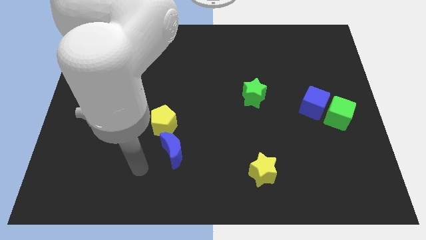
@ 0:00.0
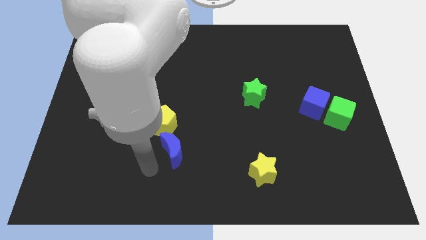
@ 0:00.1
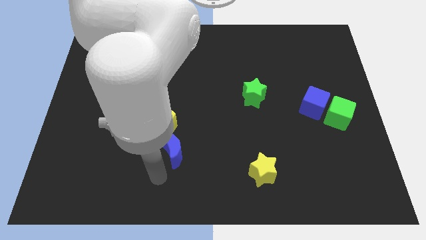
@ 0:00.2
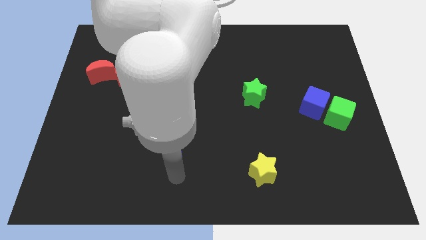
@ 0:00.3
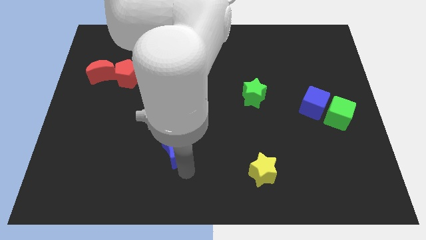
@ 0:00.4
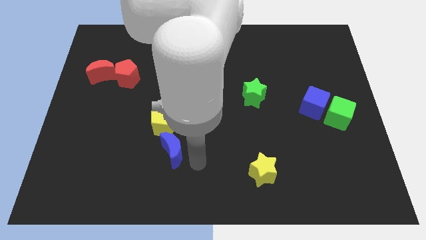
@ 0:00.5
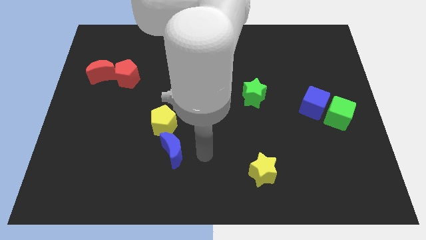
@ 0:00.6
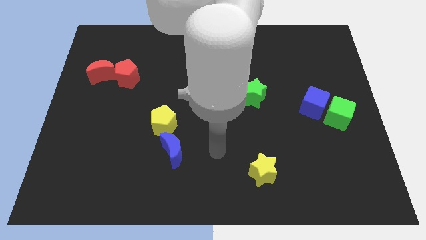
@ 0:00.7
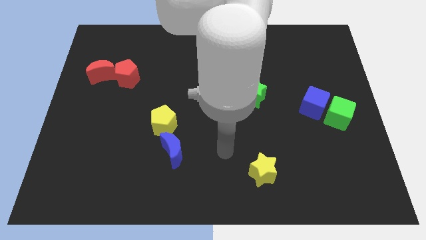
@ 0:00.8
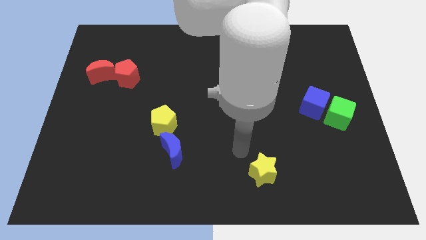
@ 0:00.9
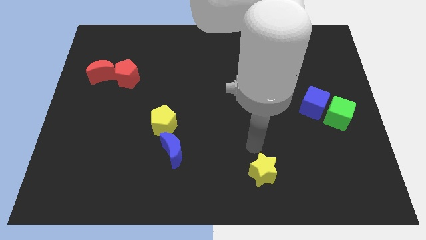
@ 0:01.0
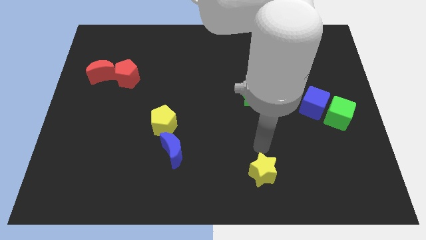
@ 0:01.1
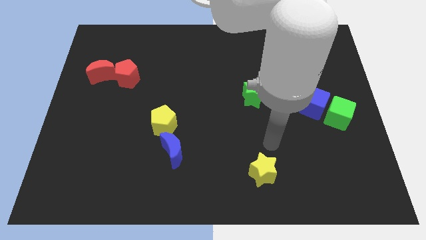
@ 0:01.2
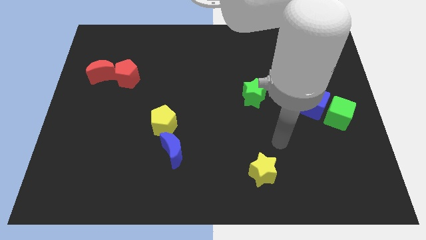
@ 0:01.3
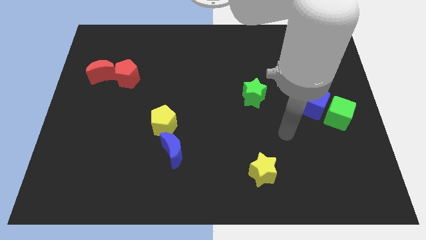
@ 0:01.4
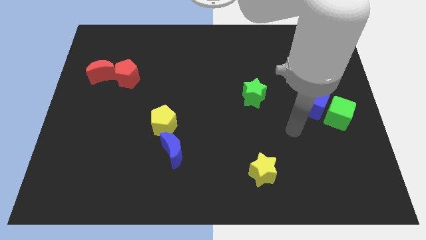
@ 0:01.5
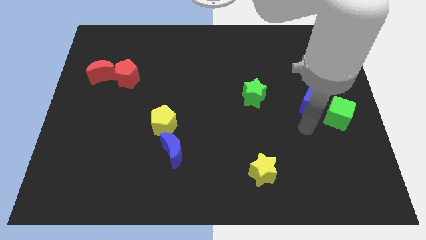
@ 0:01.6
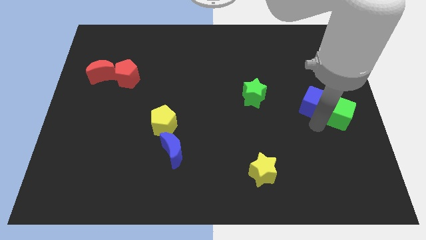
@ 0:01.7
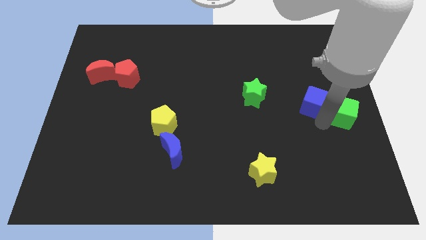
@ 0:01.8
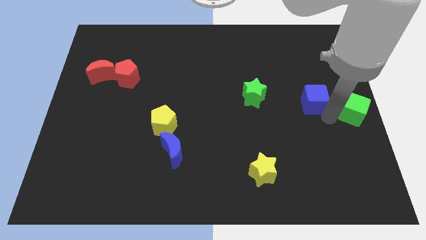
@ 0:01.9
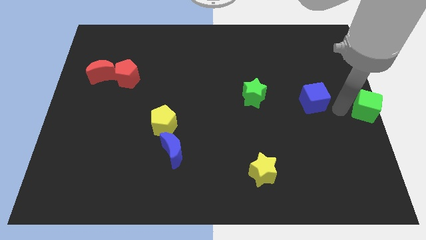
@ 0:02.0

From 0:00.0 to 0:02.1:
move the blue cube away from the green cube

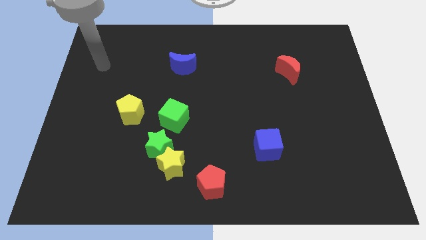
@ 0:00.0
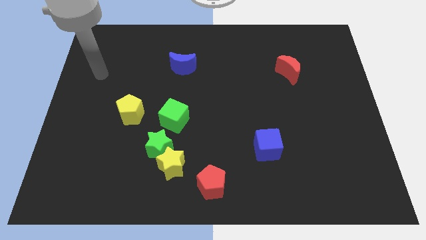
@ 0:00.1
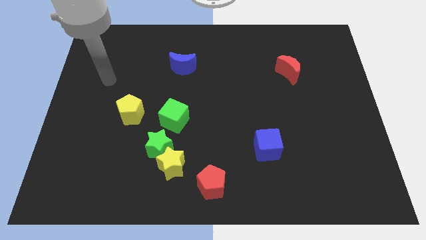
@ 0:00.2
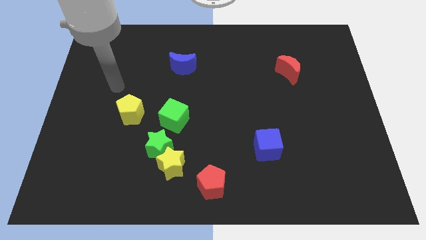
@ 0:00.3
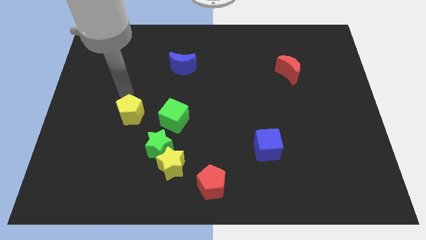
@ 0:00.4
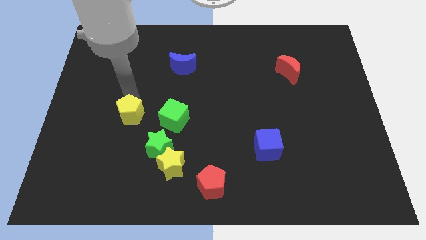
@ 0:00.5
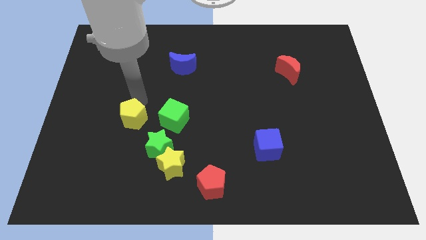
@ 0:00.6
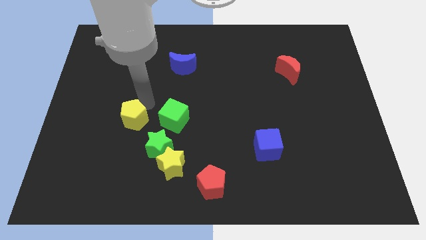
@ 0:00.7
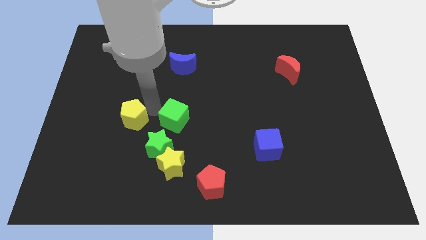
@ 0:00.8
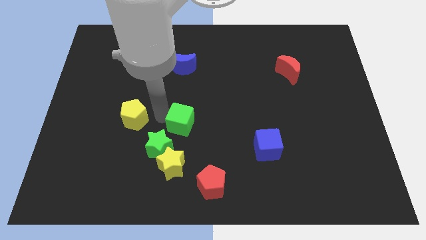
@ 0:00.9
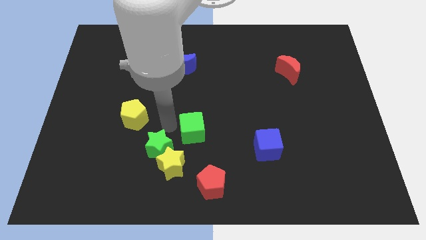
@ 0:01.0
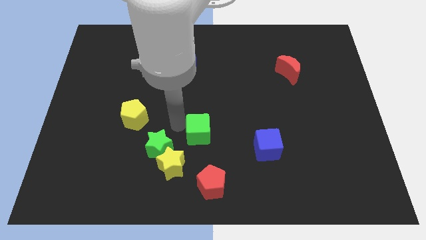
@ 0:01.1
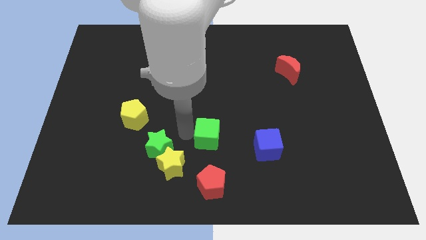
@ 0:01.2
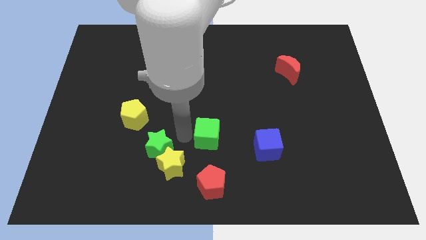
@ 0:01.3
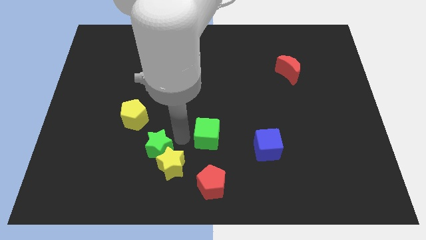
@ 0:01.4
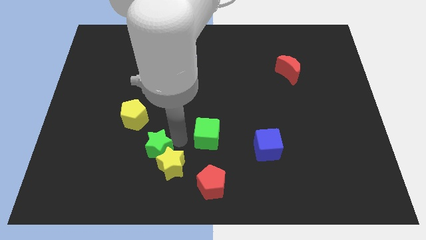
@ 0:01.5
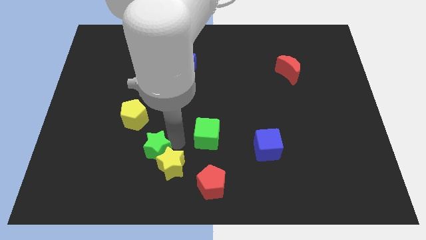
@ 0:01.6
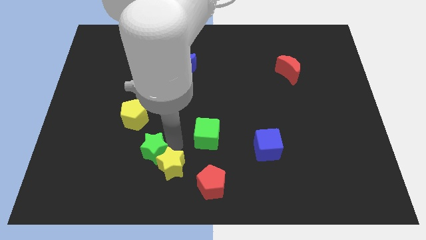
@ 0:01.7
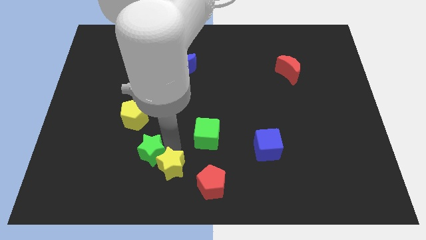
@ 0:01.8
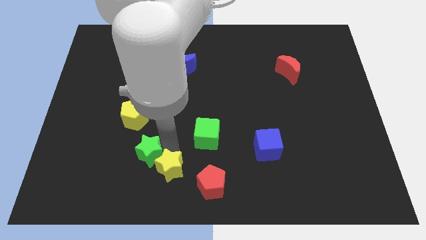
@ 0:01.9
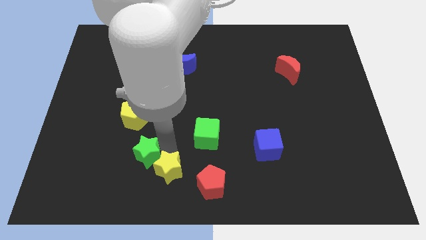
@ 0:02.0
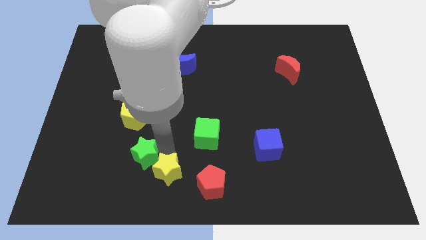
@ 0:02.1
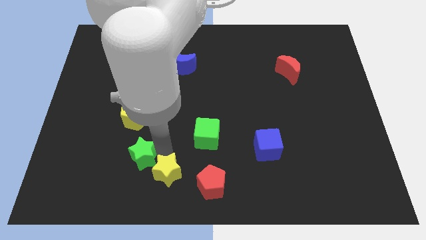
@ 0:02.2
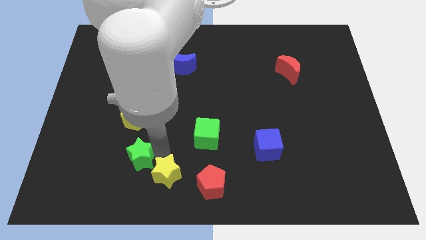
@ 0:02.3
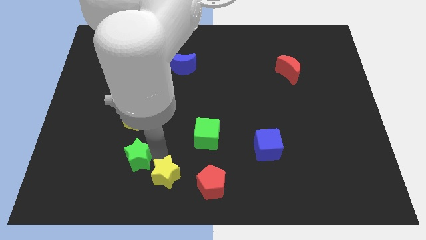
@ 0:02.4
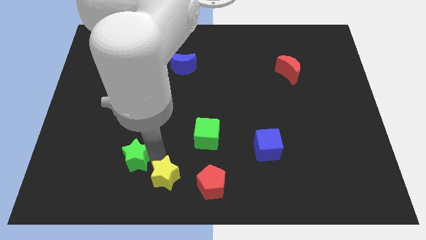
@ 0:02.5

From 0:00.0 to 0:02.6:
move the green star away from the yellow star and green cube

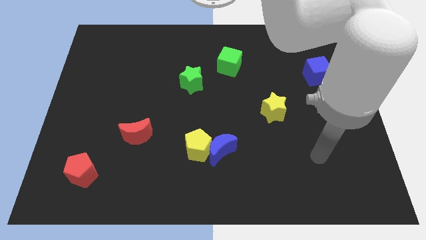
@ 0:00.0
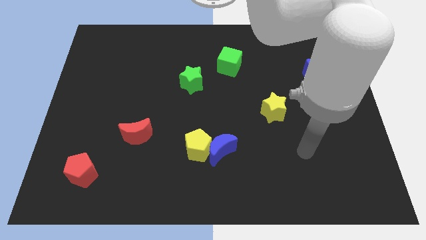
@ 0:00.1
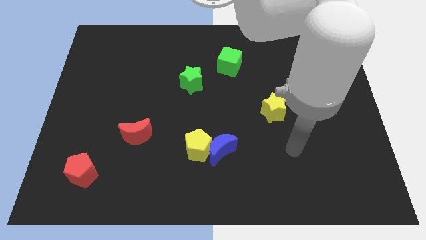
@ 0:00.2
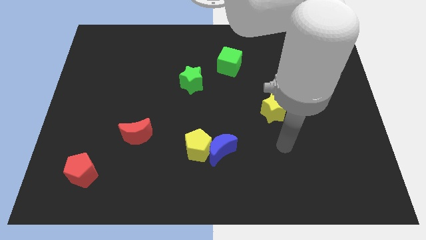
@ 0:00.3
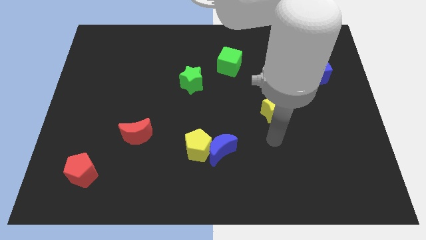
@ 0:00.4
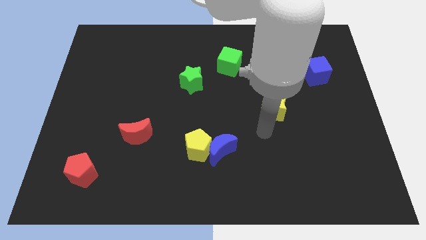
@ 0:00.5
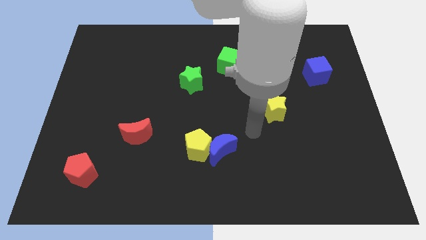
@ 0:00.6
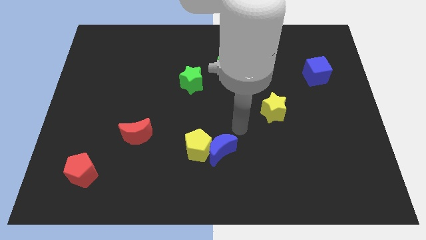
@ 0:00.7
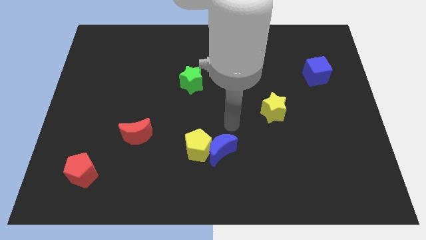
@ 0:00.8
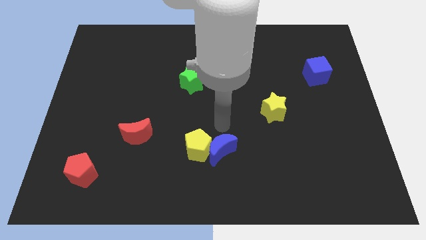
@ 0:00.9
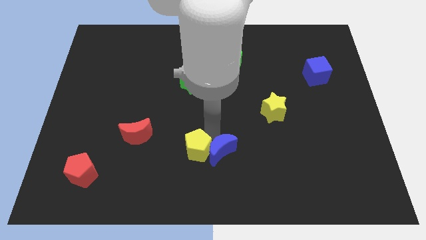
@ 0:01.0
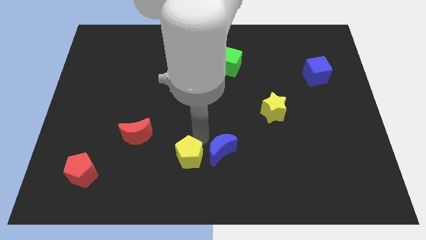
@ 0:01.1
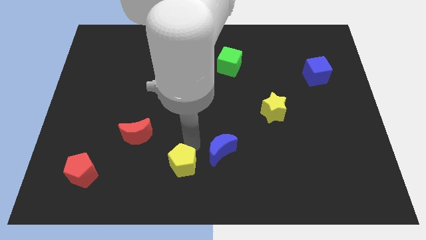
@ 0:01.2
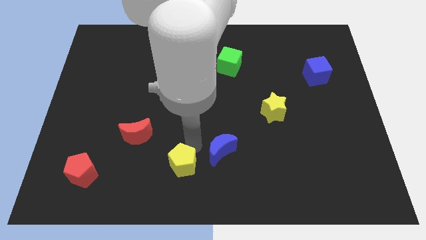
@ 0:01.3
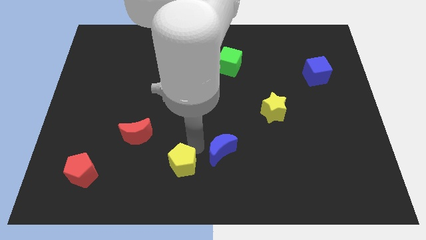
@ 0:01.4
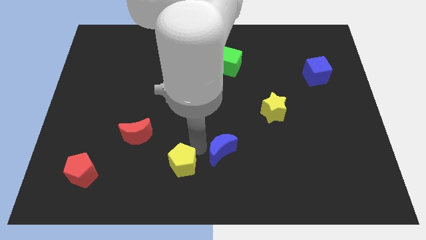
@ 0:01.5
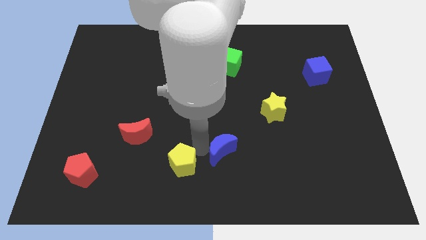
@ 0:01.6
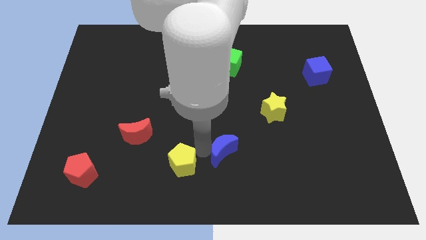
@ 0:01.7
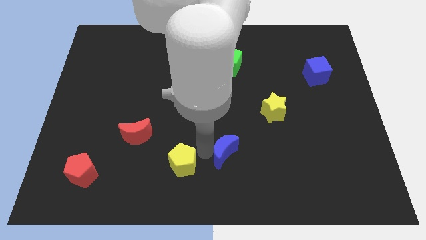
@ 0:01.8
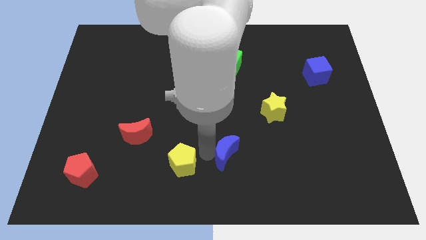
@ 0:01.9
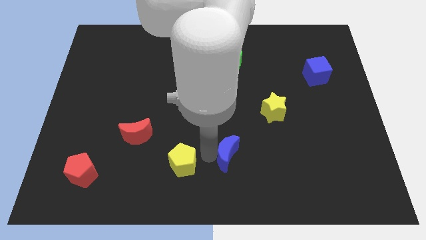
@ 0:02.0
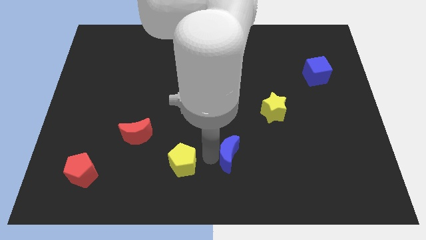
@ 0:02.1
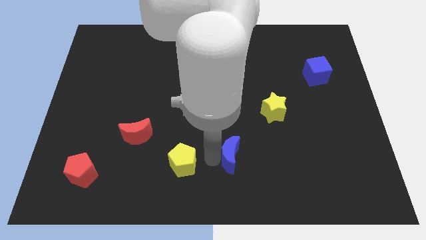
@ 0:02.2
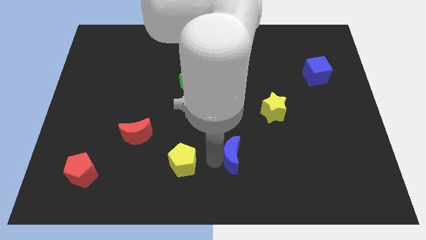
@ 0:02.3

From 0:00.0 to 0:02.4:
separate the blue moon from the yellow pentagon

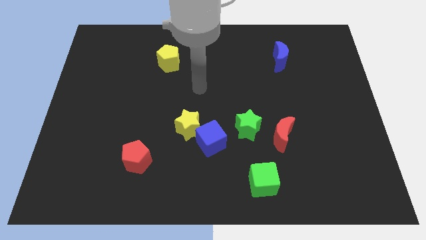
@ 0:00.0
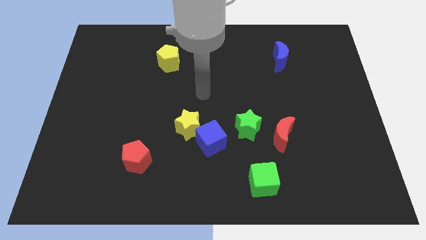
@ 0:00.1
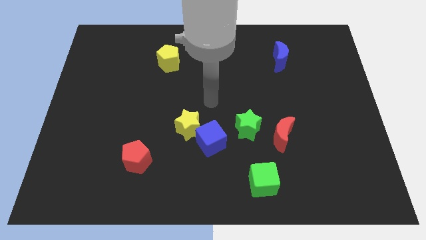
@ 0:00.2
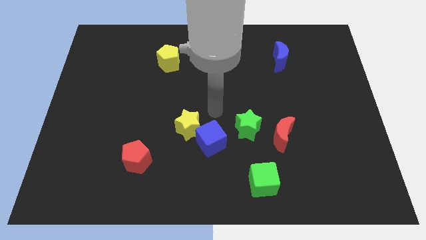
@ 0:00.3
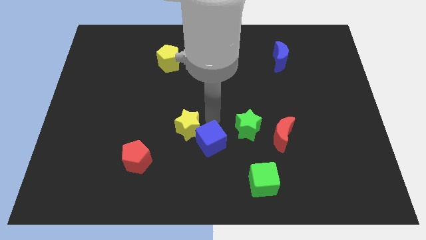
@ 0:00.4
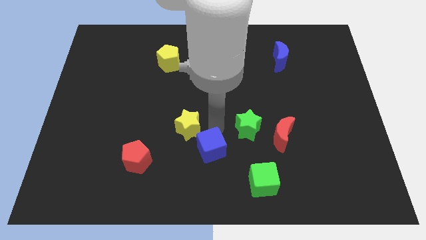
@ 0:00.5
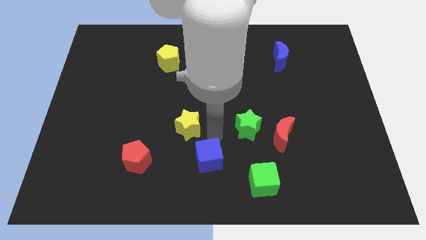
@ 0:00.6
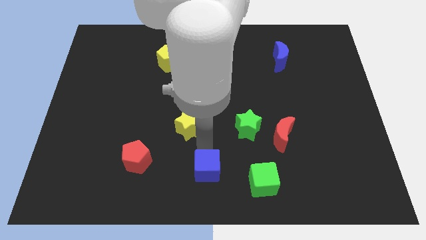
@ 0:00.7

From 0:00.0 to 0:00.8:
move the yellow star away from the blue cube

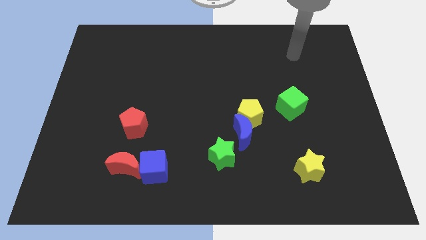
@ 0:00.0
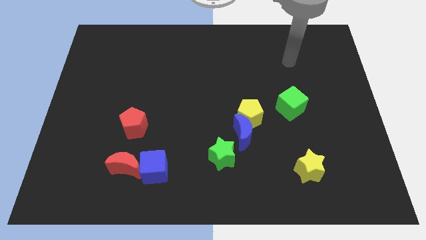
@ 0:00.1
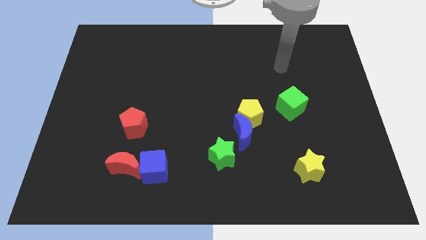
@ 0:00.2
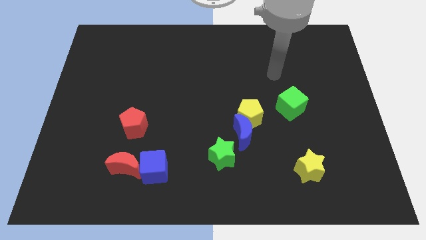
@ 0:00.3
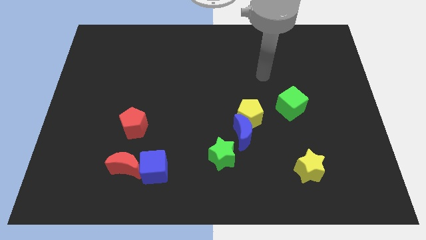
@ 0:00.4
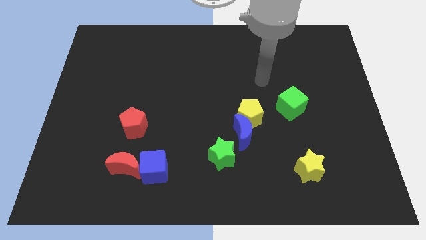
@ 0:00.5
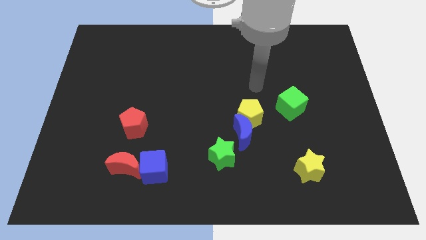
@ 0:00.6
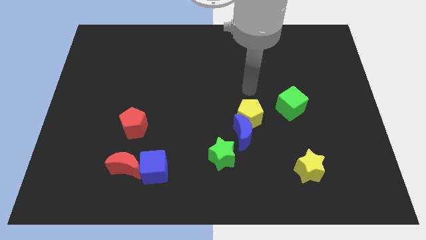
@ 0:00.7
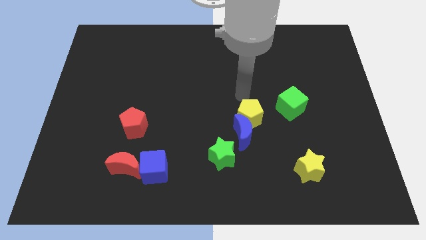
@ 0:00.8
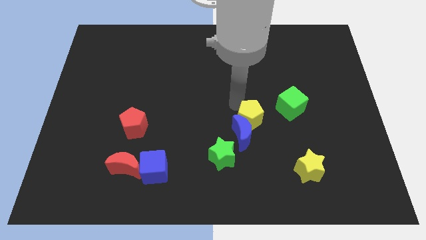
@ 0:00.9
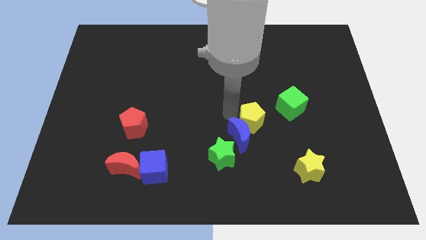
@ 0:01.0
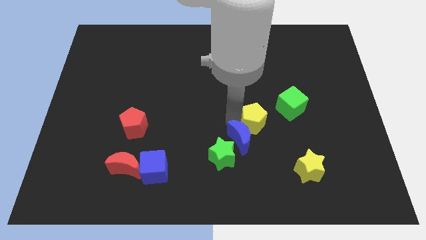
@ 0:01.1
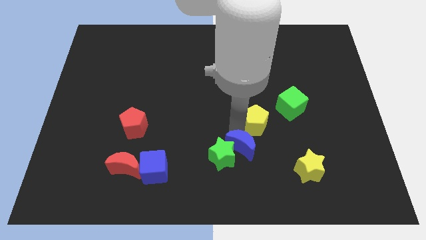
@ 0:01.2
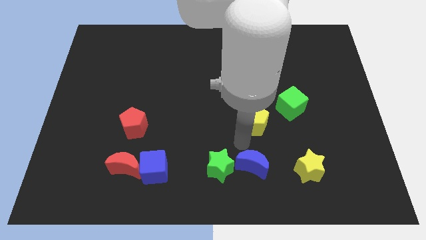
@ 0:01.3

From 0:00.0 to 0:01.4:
pull the yellow pentagon apart from the blue moon
